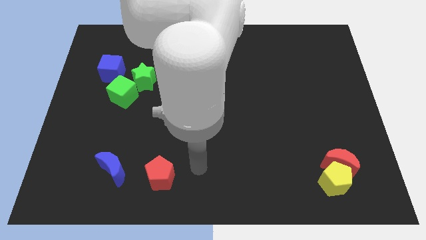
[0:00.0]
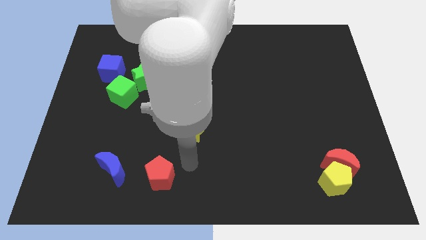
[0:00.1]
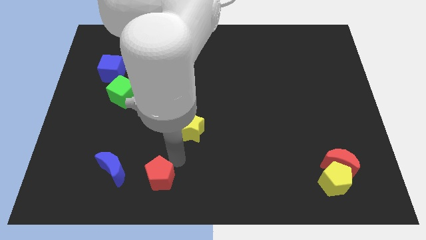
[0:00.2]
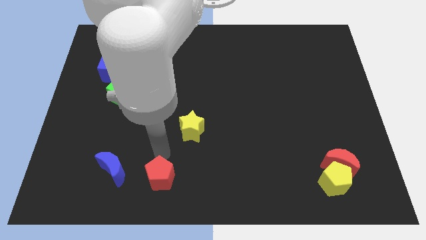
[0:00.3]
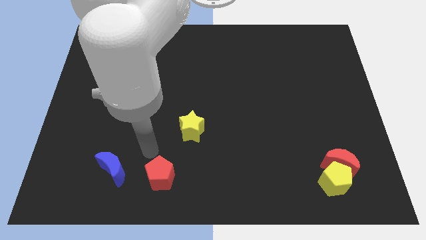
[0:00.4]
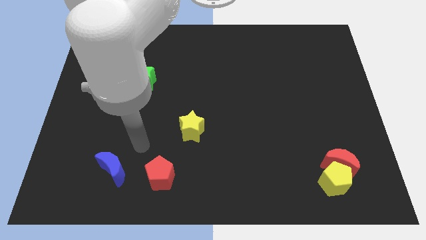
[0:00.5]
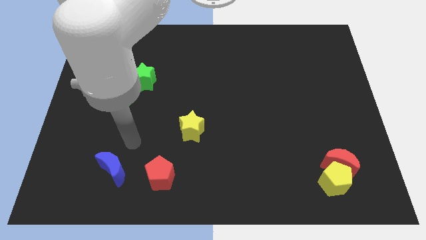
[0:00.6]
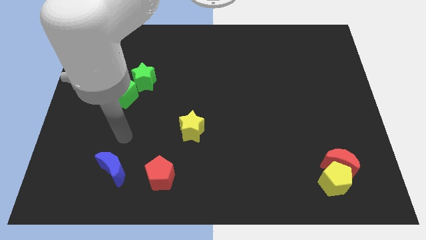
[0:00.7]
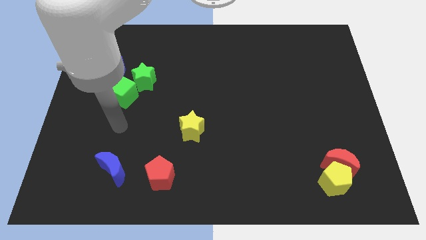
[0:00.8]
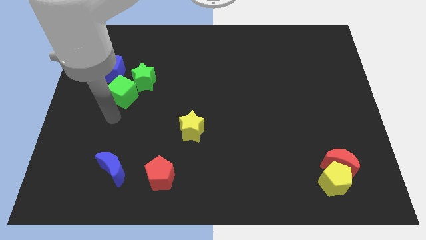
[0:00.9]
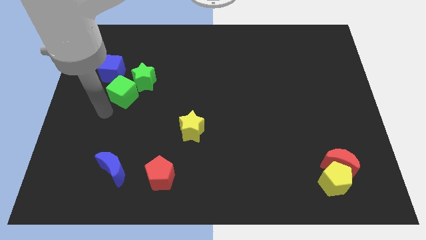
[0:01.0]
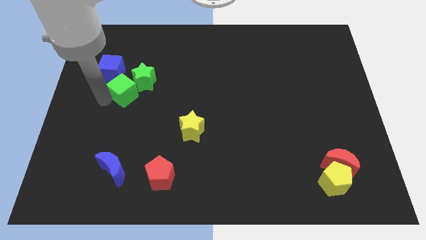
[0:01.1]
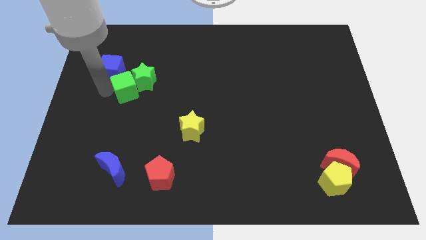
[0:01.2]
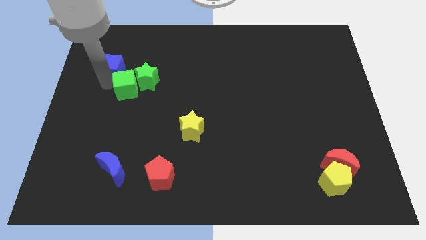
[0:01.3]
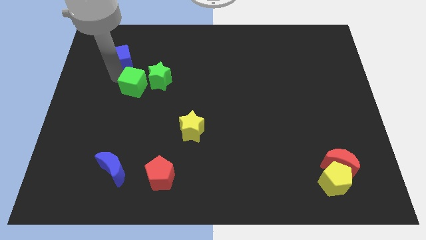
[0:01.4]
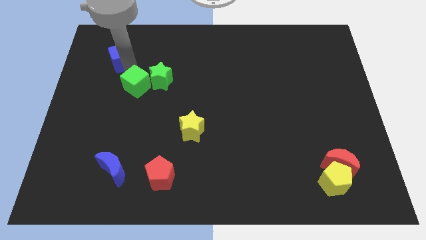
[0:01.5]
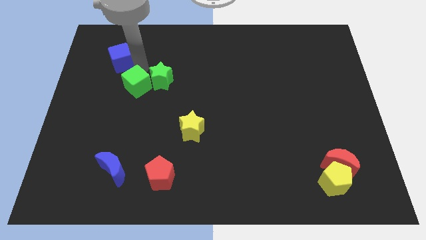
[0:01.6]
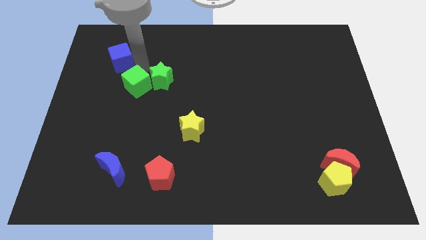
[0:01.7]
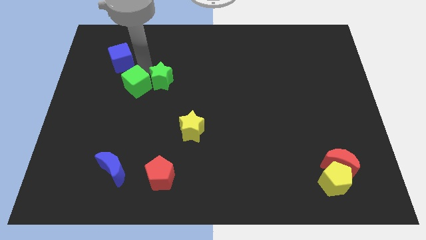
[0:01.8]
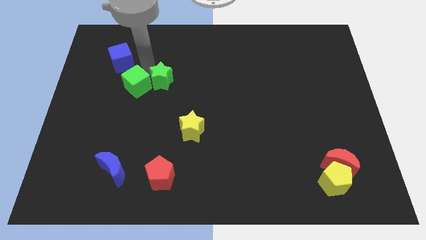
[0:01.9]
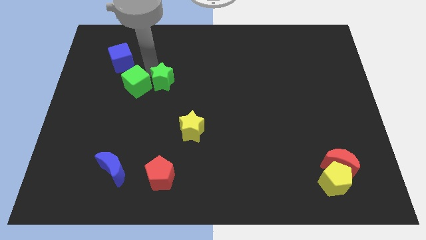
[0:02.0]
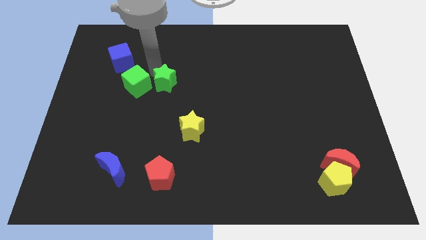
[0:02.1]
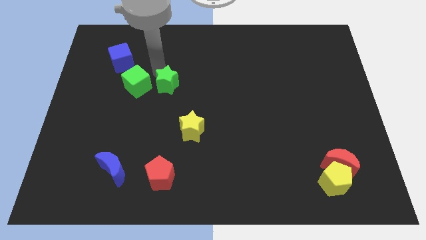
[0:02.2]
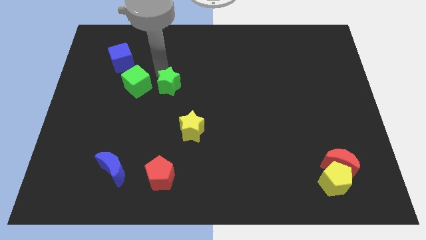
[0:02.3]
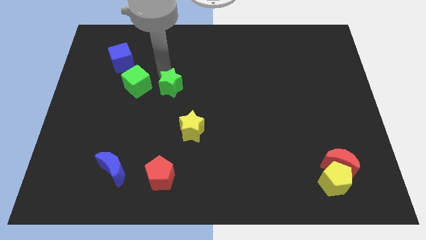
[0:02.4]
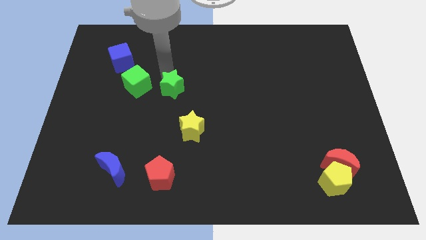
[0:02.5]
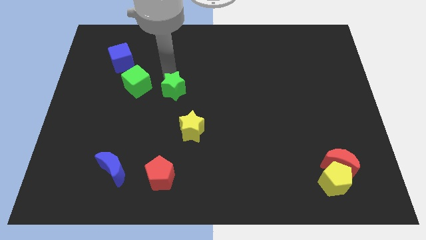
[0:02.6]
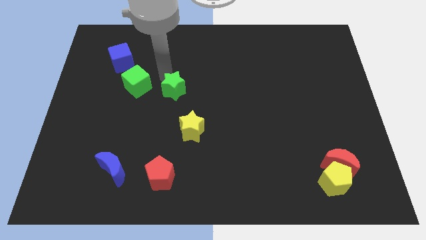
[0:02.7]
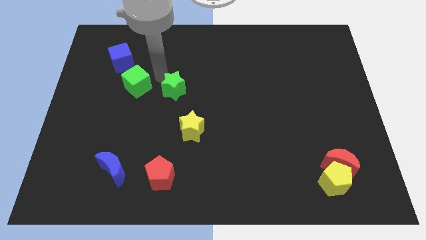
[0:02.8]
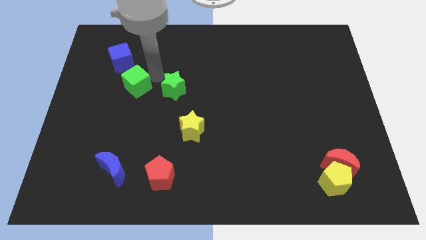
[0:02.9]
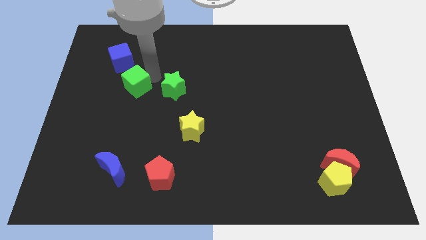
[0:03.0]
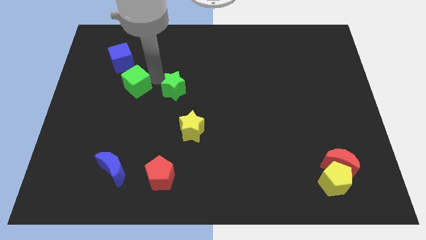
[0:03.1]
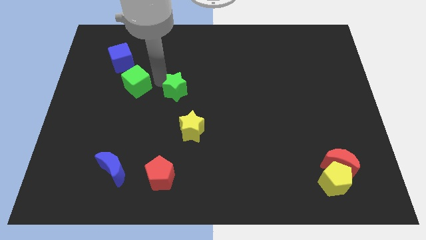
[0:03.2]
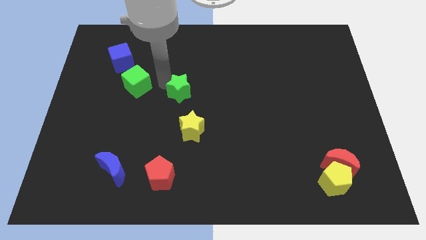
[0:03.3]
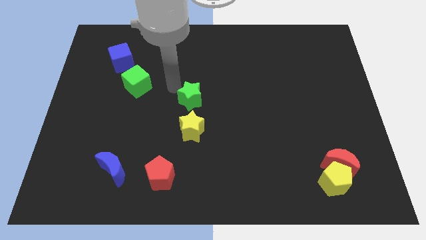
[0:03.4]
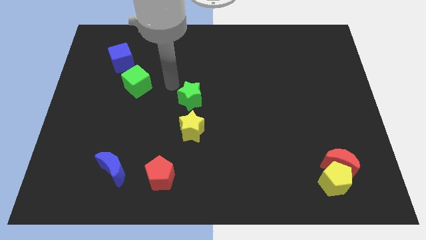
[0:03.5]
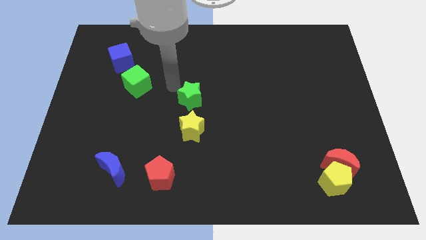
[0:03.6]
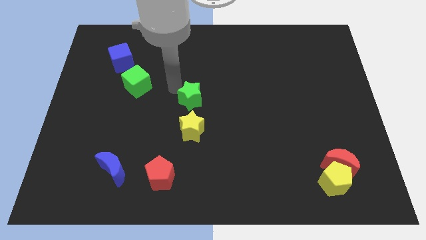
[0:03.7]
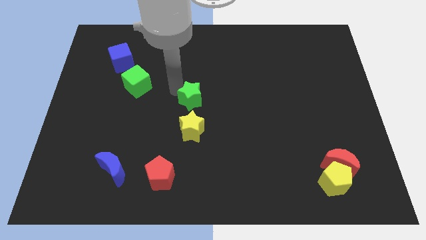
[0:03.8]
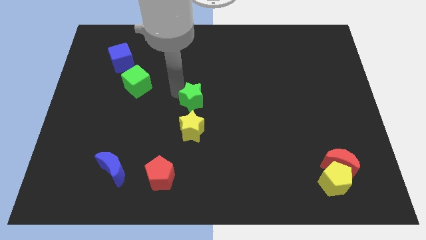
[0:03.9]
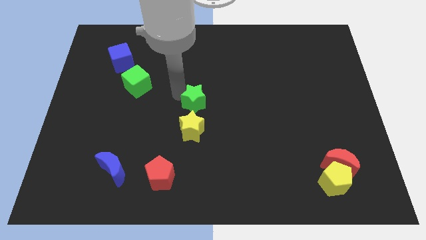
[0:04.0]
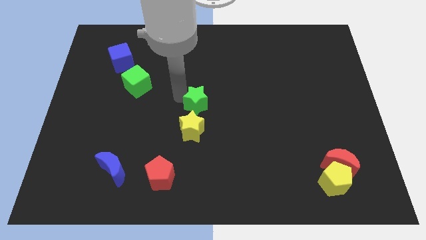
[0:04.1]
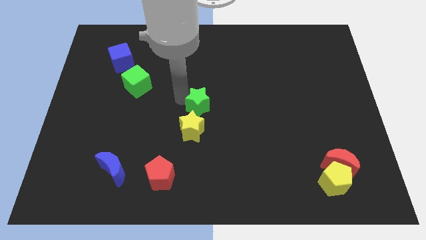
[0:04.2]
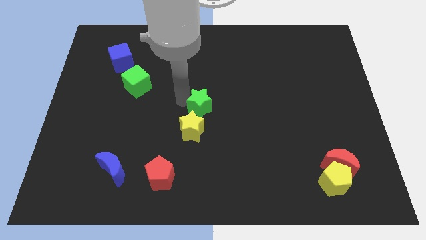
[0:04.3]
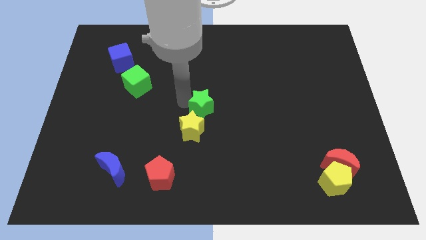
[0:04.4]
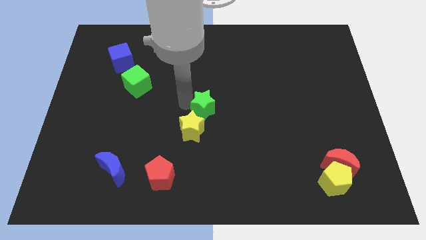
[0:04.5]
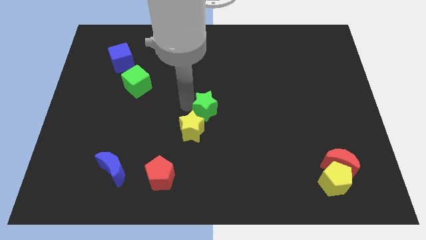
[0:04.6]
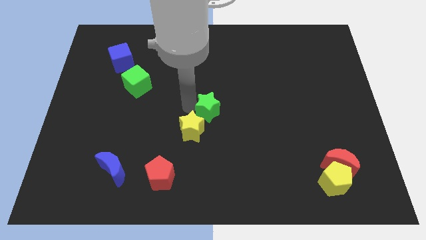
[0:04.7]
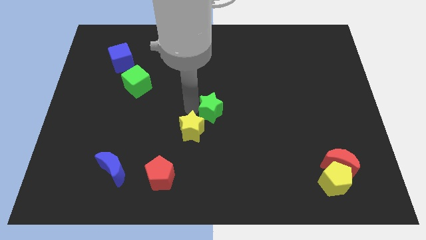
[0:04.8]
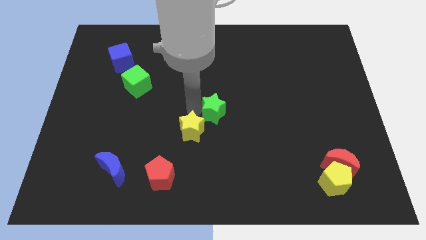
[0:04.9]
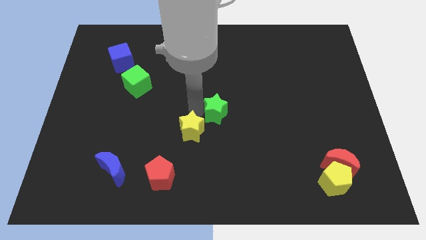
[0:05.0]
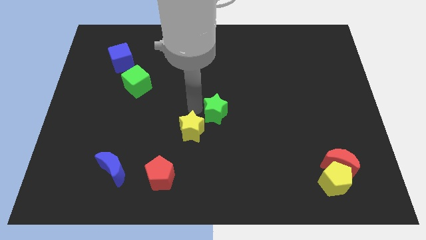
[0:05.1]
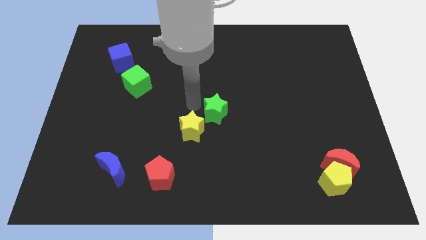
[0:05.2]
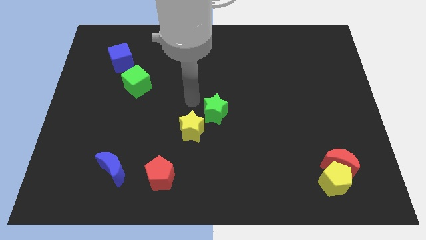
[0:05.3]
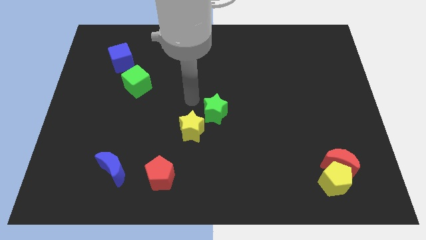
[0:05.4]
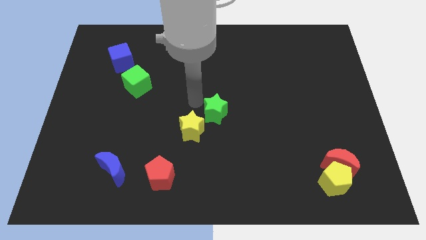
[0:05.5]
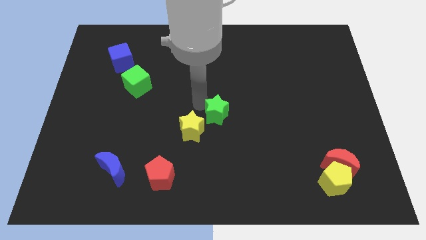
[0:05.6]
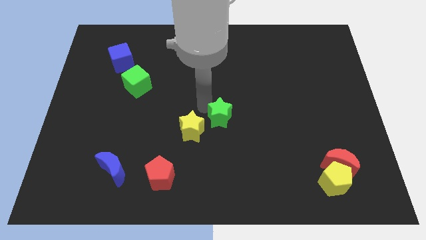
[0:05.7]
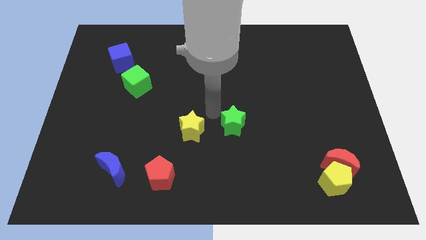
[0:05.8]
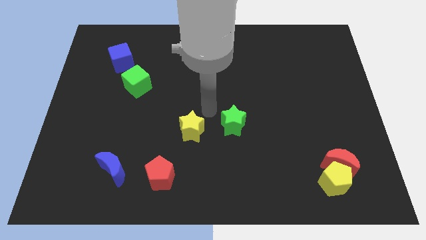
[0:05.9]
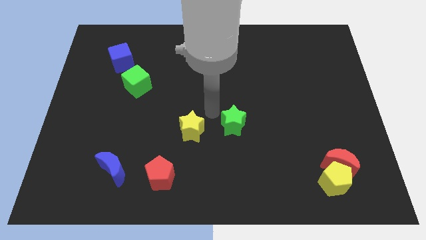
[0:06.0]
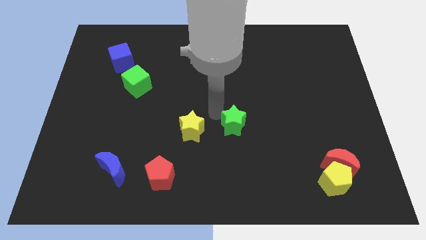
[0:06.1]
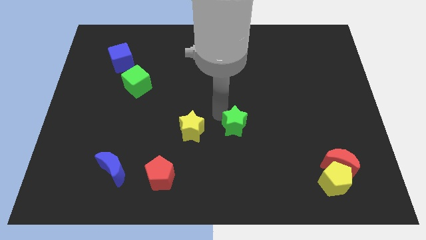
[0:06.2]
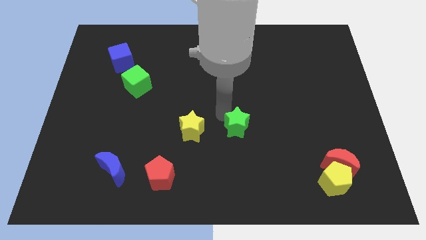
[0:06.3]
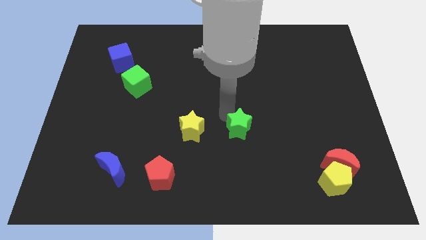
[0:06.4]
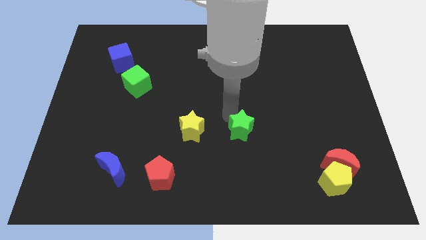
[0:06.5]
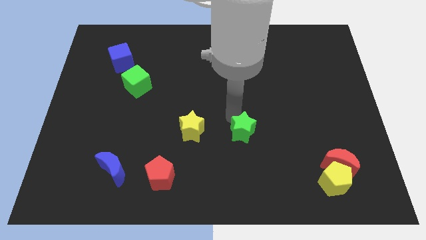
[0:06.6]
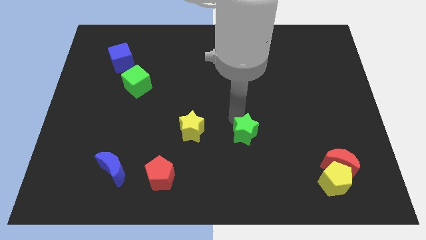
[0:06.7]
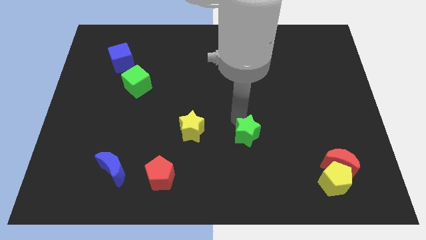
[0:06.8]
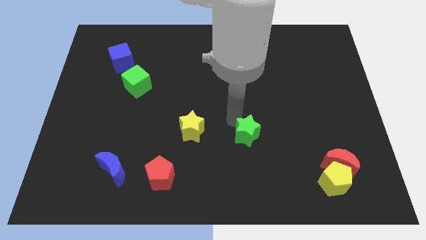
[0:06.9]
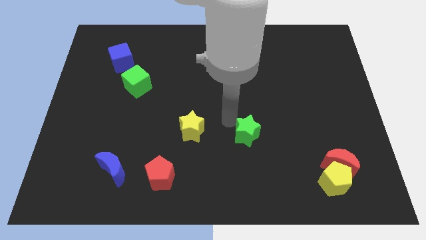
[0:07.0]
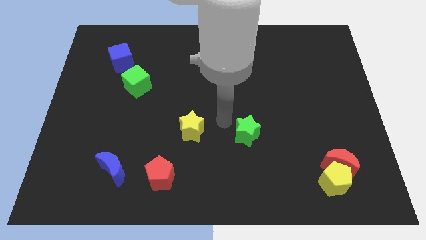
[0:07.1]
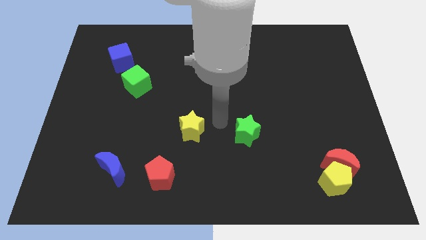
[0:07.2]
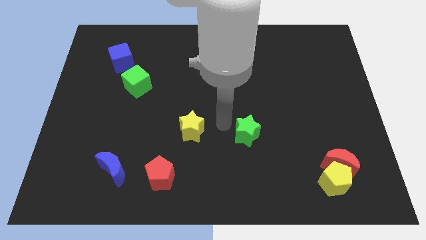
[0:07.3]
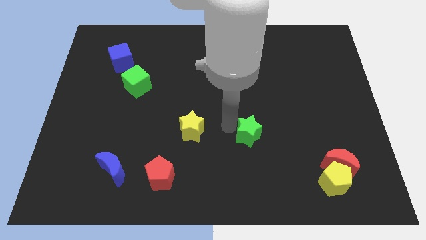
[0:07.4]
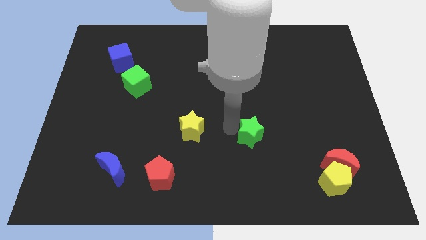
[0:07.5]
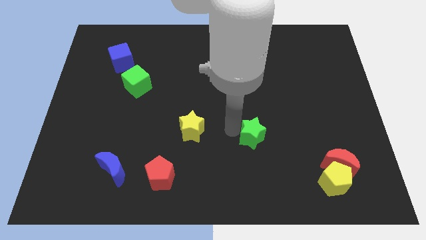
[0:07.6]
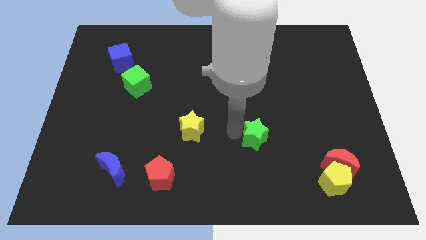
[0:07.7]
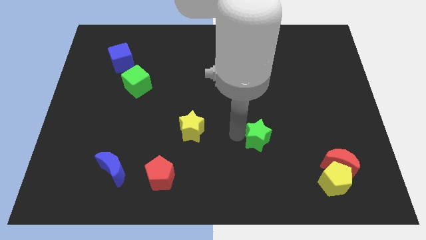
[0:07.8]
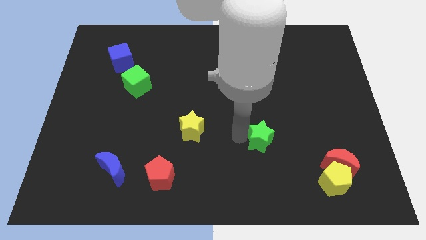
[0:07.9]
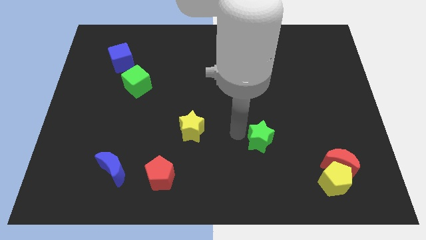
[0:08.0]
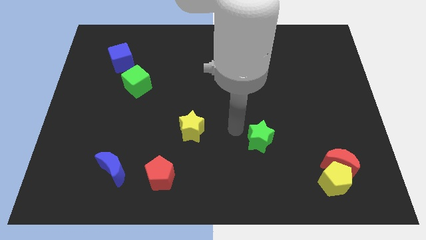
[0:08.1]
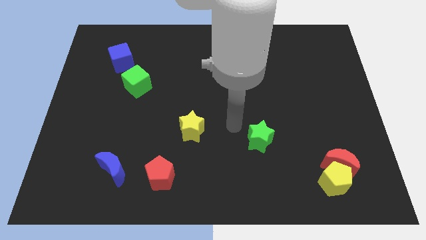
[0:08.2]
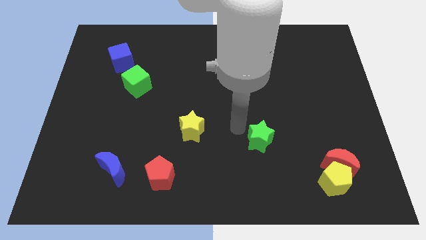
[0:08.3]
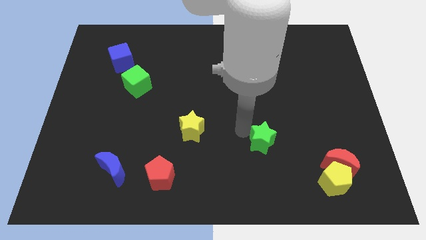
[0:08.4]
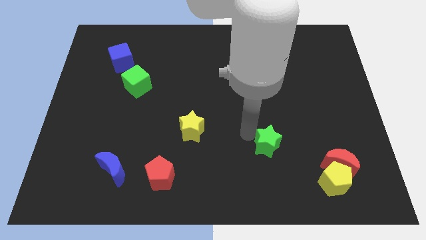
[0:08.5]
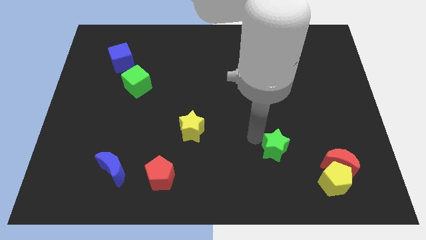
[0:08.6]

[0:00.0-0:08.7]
slide the green star to the left of the red moon
